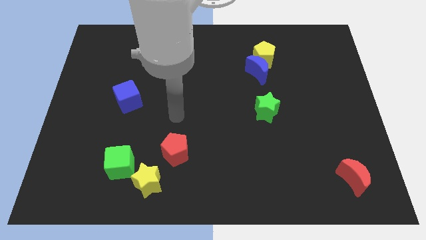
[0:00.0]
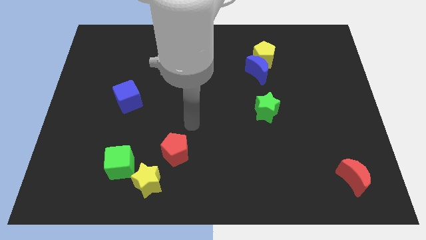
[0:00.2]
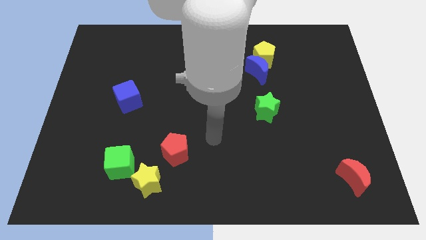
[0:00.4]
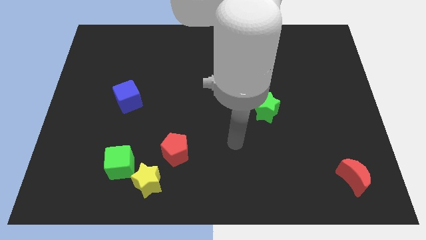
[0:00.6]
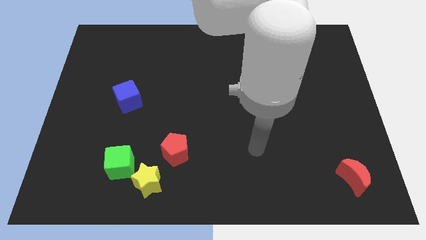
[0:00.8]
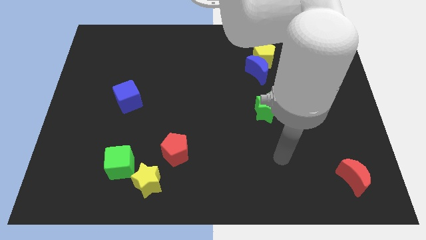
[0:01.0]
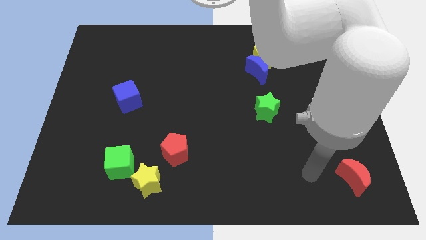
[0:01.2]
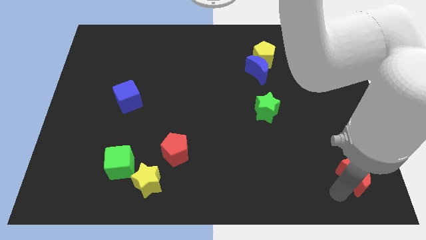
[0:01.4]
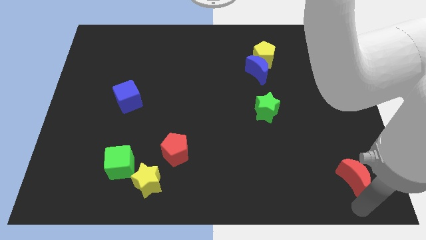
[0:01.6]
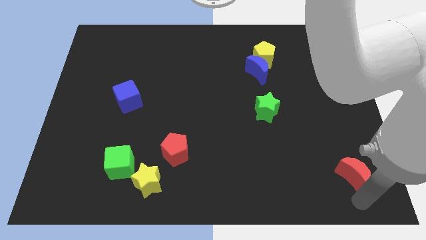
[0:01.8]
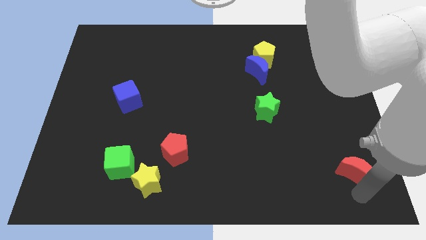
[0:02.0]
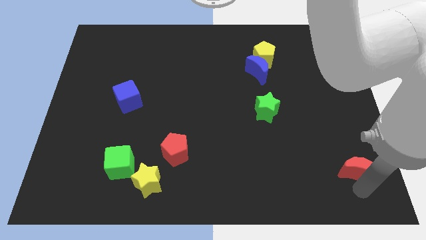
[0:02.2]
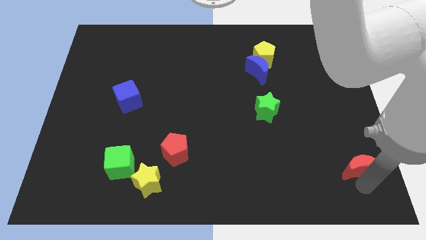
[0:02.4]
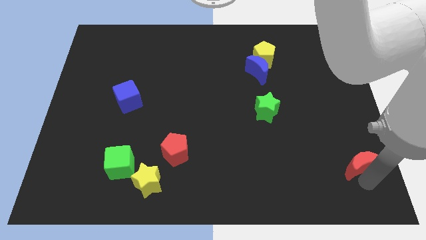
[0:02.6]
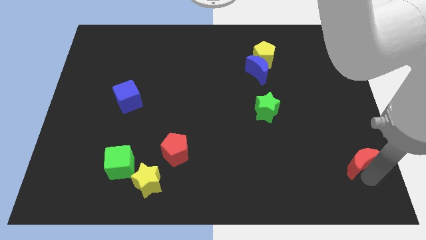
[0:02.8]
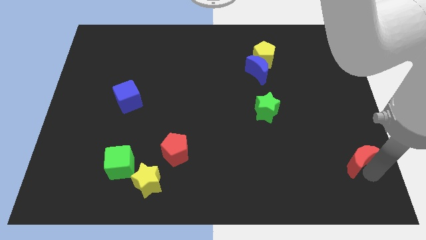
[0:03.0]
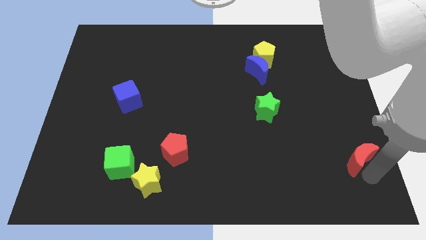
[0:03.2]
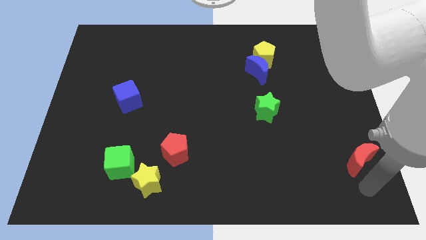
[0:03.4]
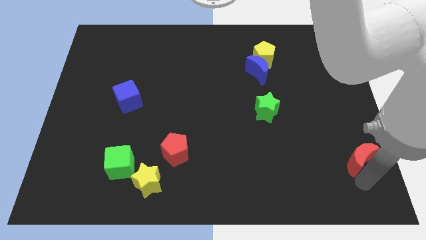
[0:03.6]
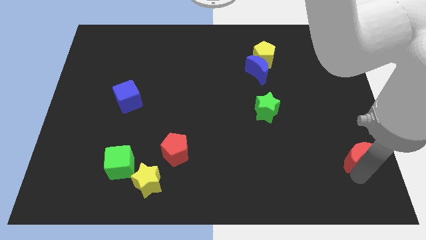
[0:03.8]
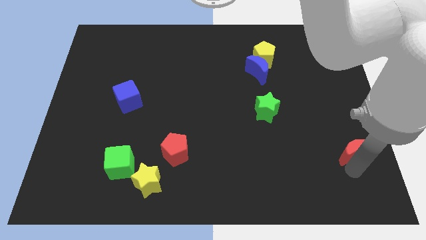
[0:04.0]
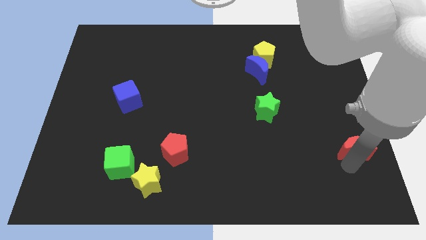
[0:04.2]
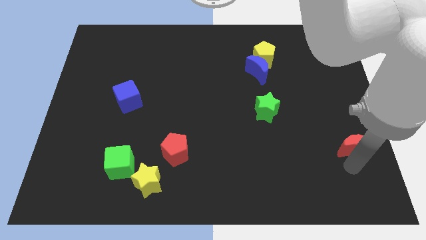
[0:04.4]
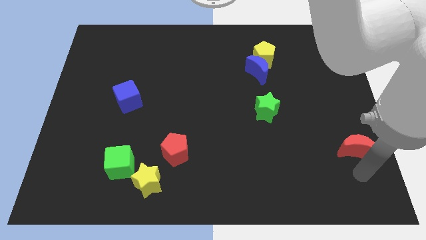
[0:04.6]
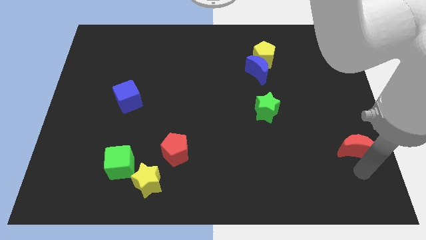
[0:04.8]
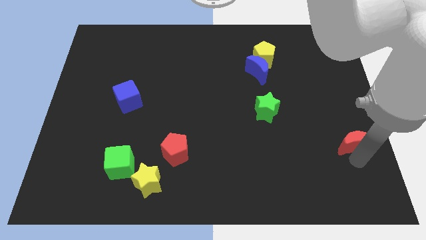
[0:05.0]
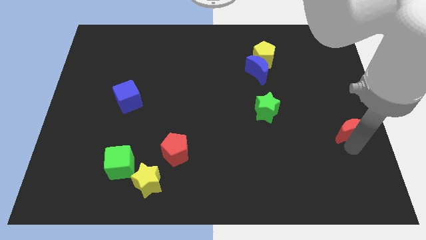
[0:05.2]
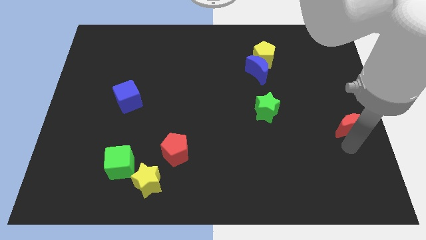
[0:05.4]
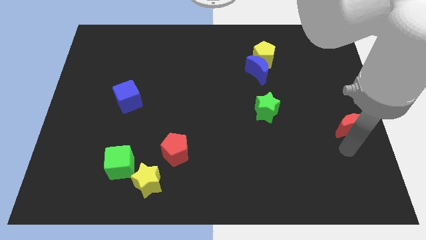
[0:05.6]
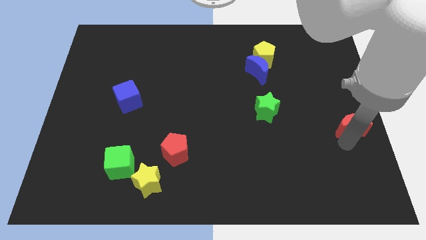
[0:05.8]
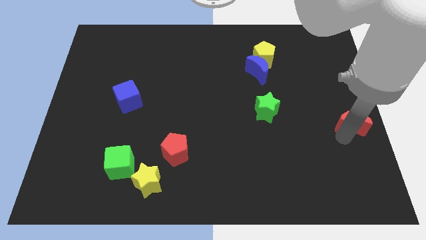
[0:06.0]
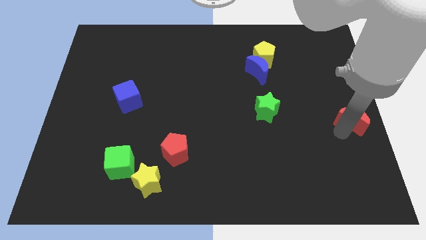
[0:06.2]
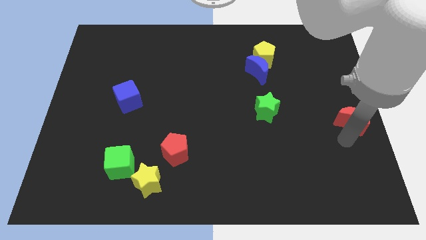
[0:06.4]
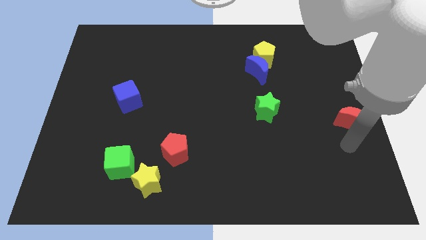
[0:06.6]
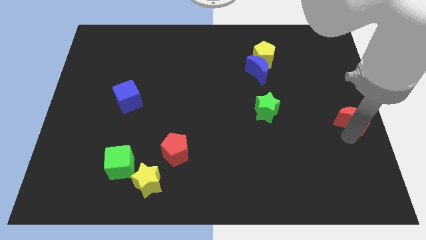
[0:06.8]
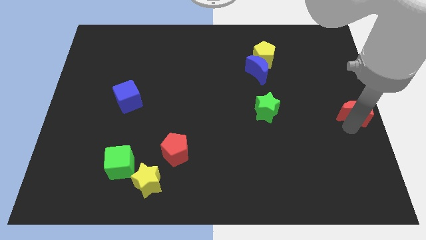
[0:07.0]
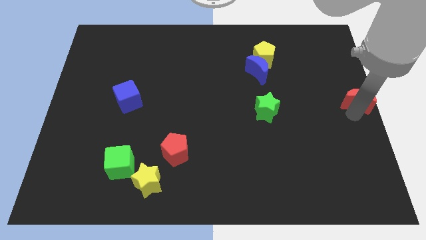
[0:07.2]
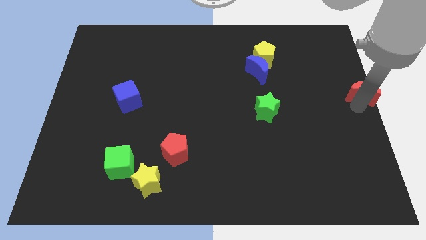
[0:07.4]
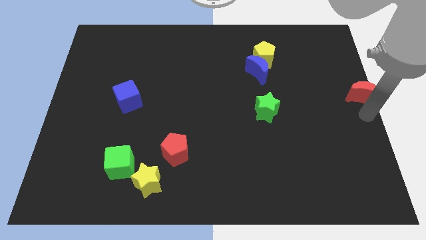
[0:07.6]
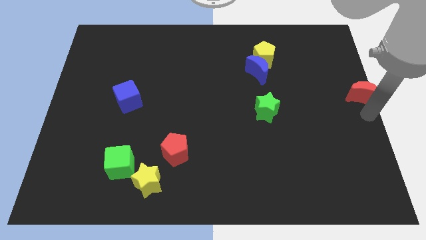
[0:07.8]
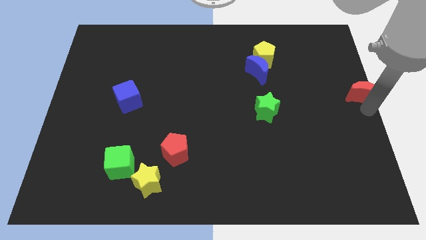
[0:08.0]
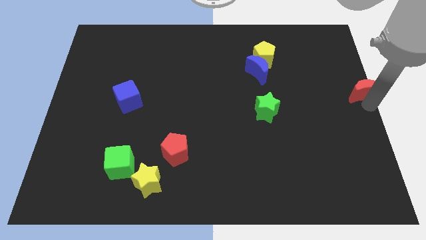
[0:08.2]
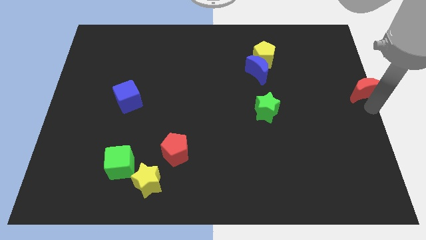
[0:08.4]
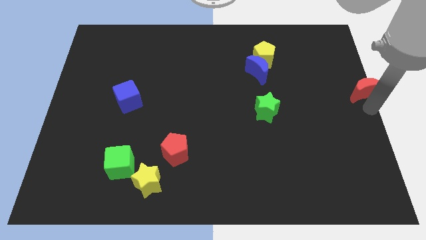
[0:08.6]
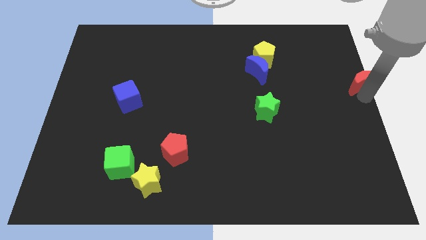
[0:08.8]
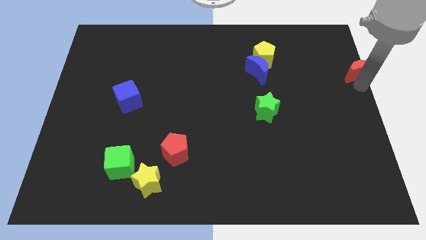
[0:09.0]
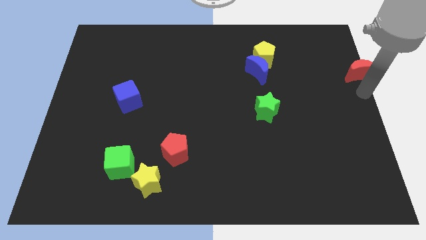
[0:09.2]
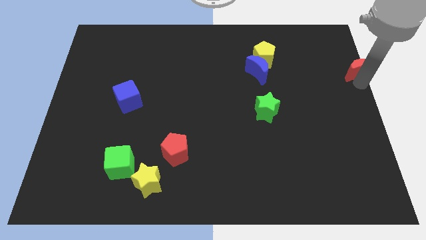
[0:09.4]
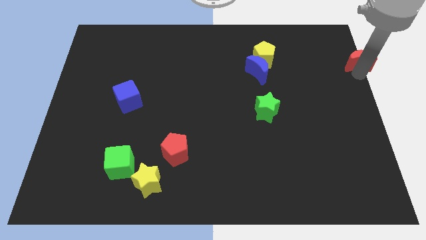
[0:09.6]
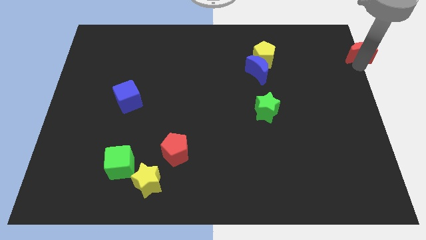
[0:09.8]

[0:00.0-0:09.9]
slide the red moon to the upper right corner

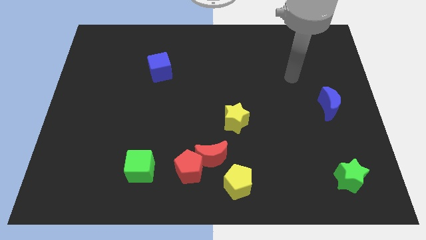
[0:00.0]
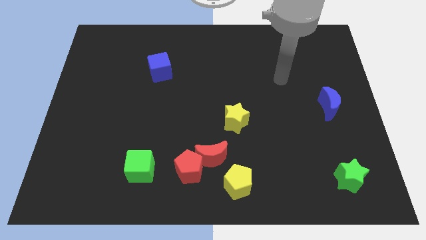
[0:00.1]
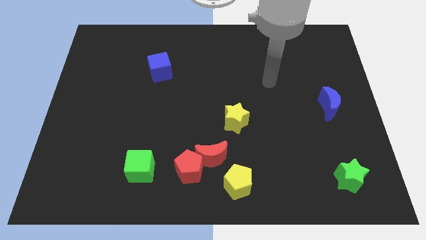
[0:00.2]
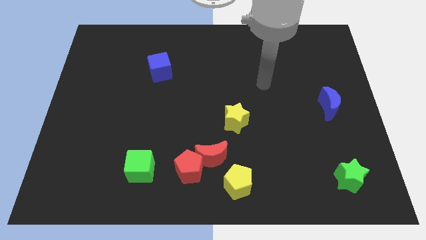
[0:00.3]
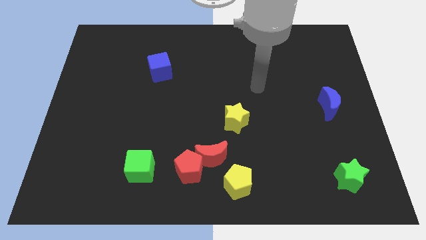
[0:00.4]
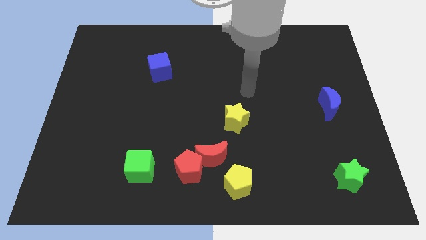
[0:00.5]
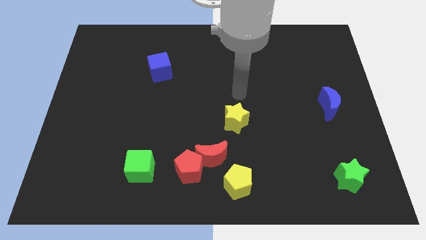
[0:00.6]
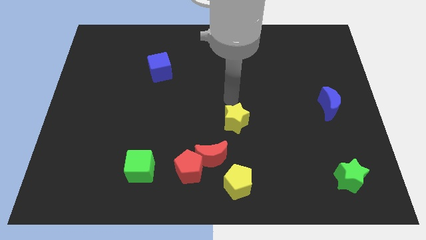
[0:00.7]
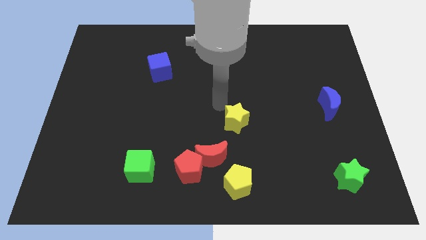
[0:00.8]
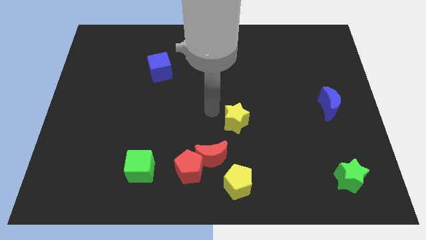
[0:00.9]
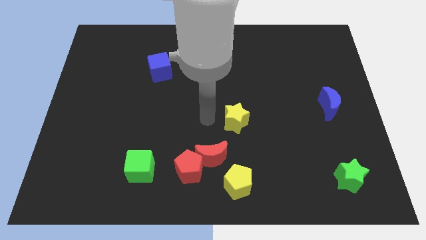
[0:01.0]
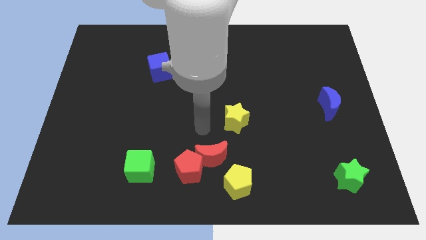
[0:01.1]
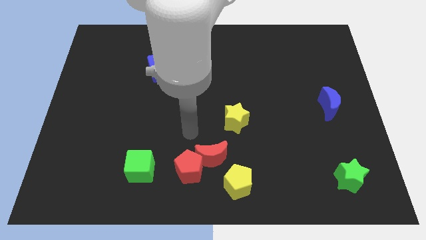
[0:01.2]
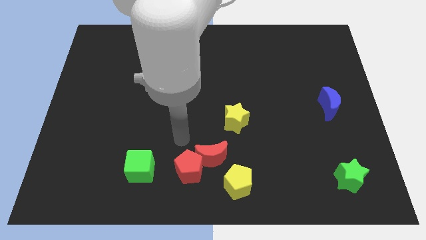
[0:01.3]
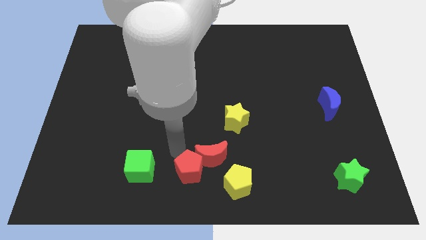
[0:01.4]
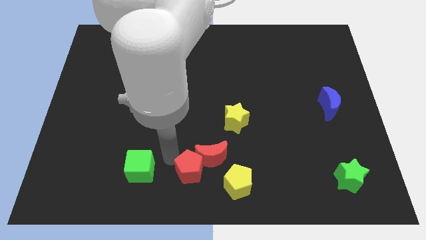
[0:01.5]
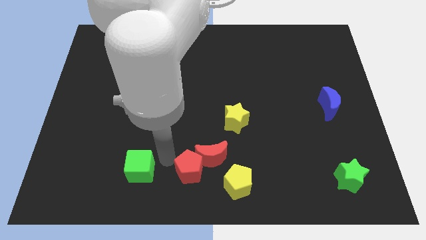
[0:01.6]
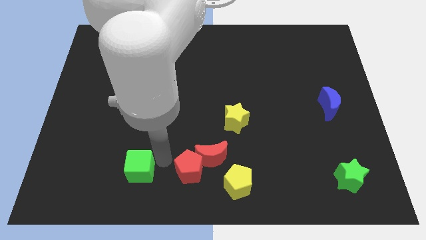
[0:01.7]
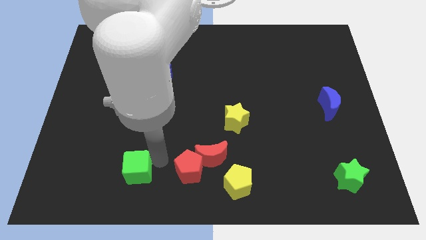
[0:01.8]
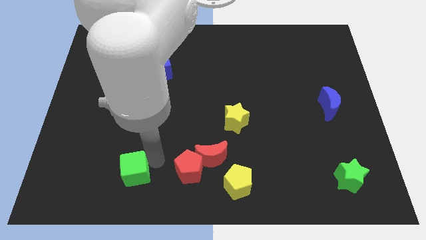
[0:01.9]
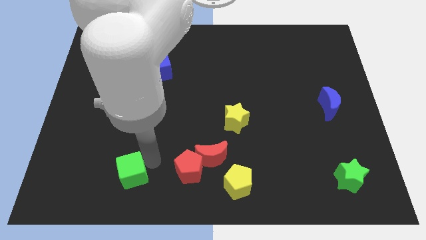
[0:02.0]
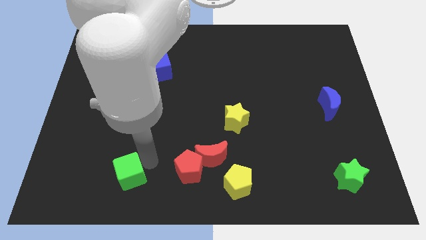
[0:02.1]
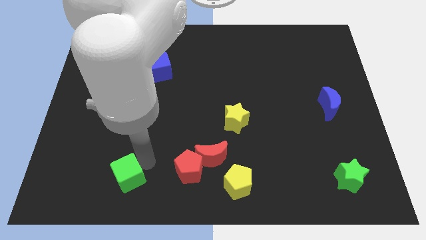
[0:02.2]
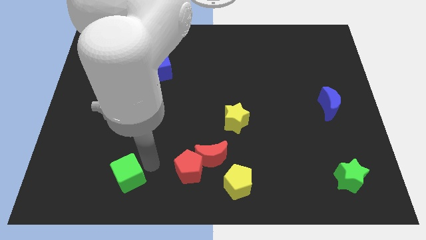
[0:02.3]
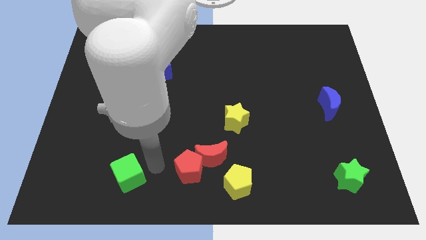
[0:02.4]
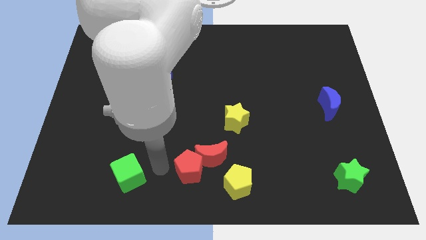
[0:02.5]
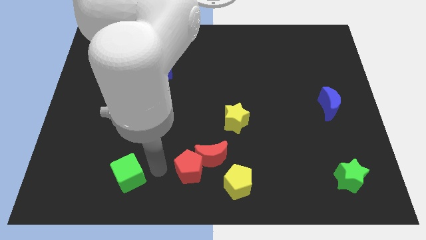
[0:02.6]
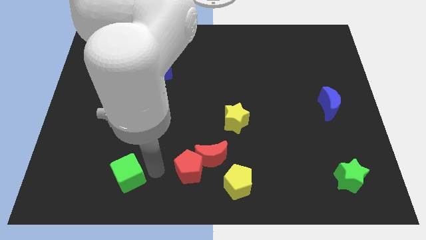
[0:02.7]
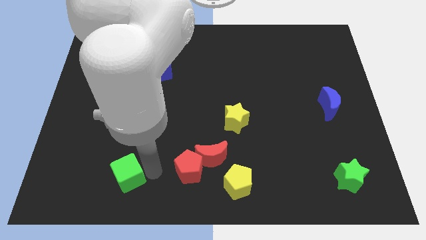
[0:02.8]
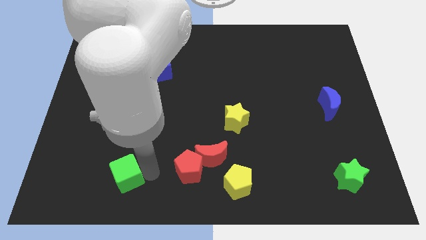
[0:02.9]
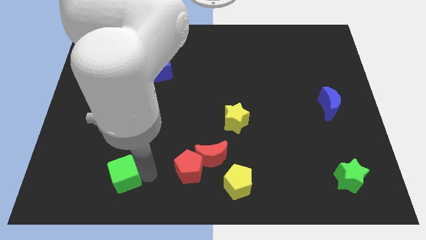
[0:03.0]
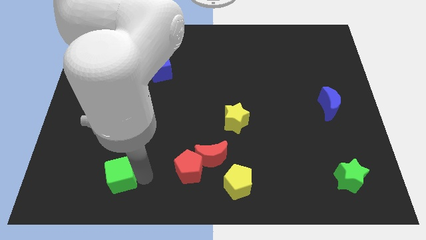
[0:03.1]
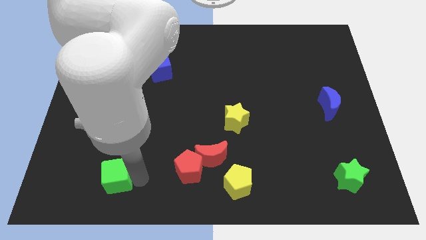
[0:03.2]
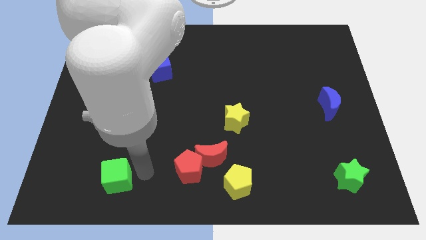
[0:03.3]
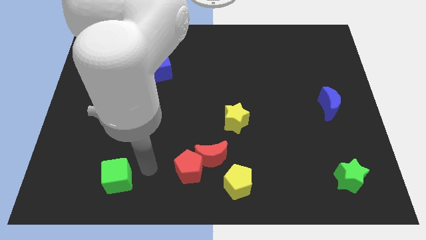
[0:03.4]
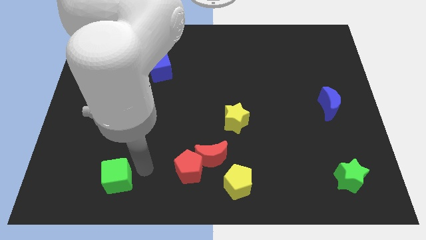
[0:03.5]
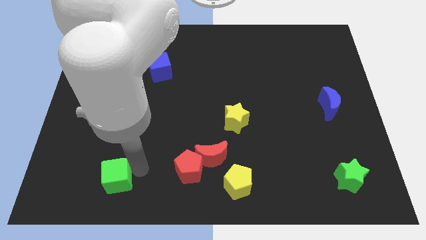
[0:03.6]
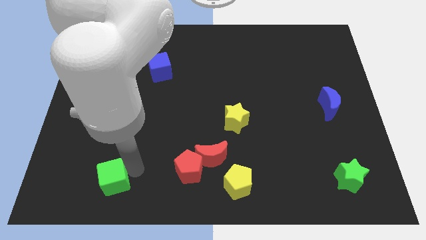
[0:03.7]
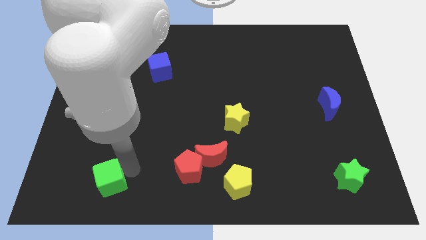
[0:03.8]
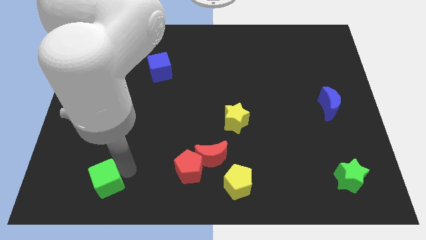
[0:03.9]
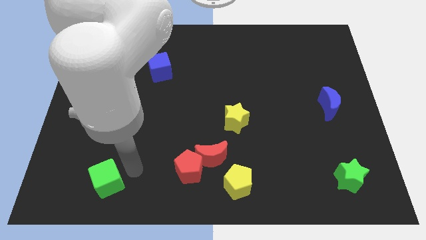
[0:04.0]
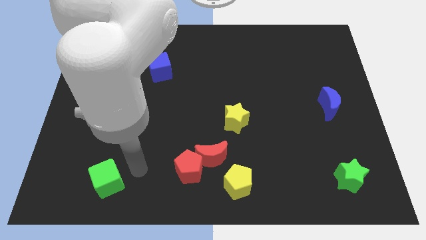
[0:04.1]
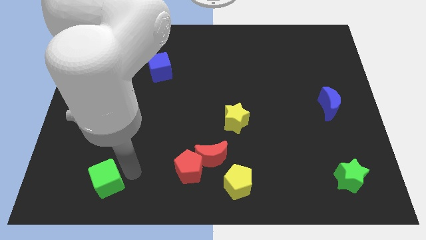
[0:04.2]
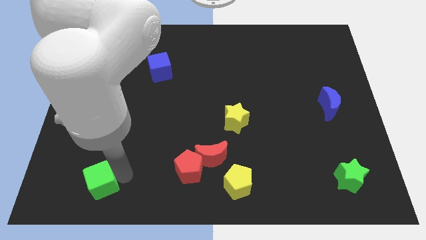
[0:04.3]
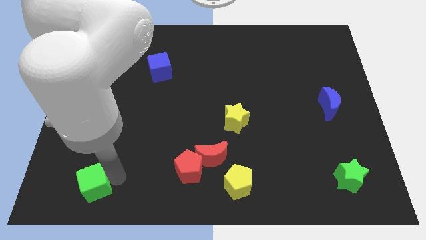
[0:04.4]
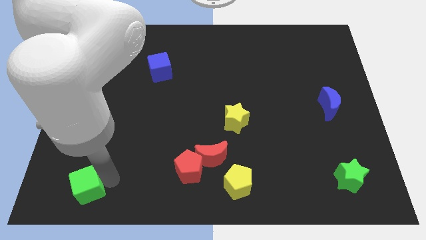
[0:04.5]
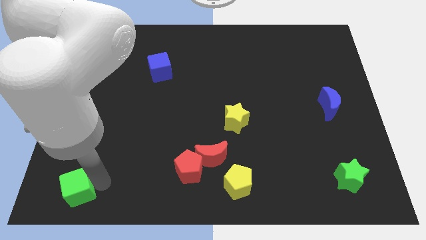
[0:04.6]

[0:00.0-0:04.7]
put the green cube to the bottom left corner
